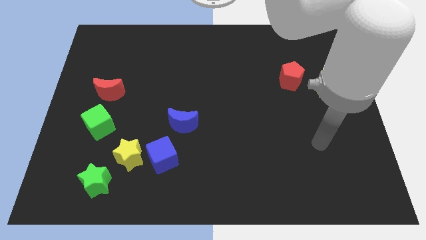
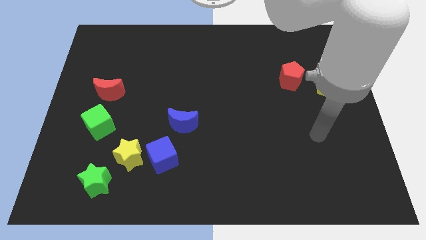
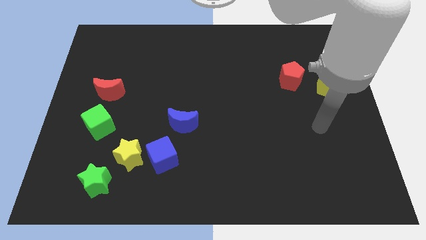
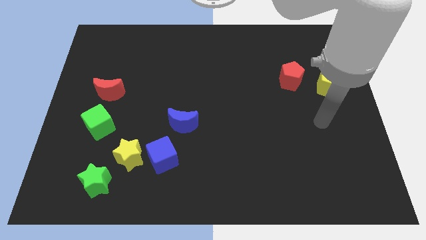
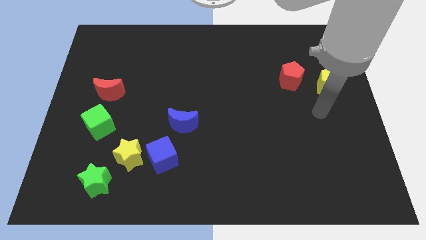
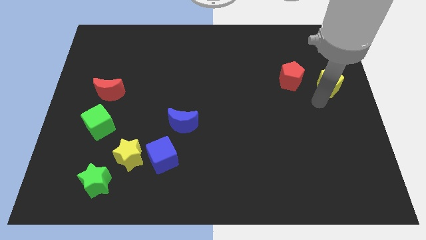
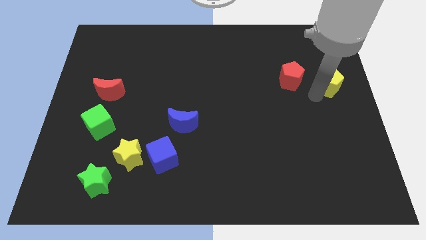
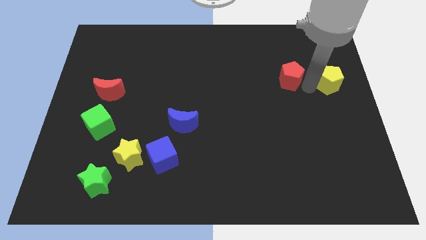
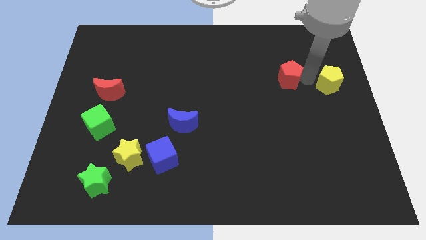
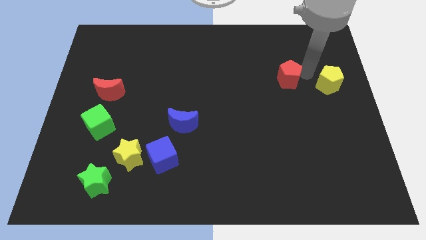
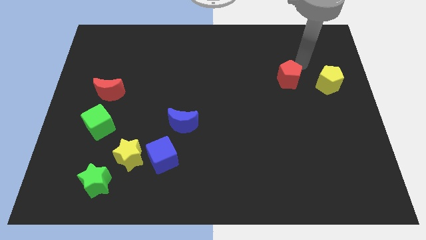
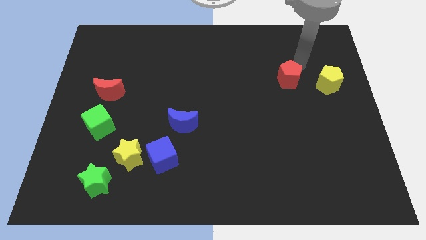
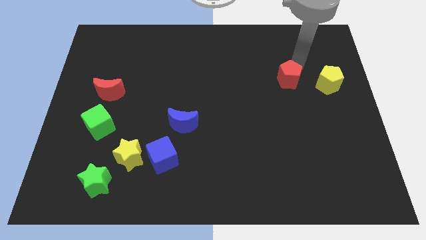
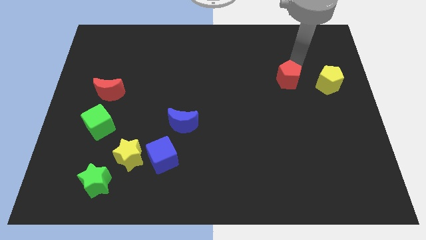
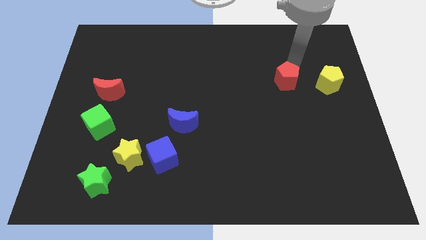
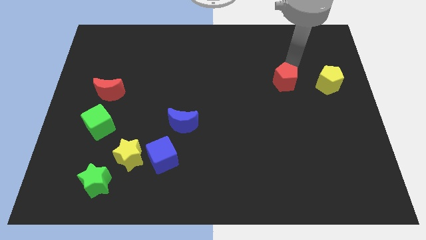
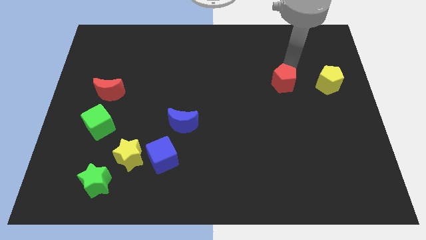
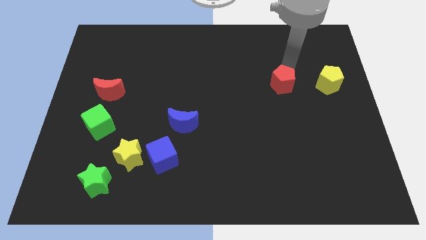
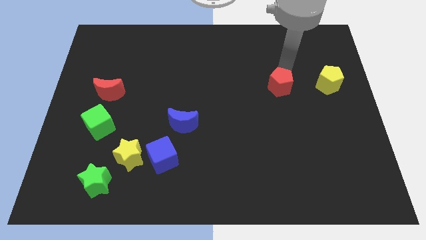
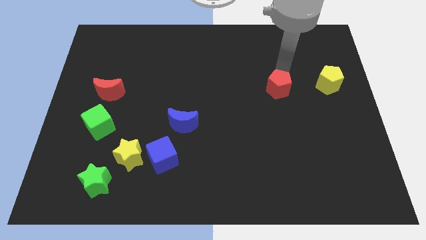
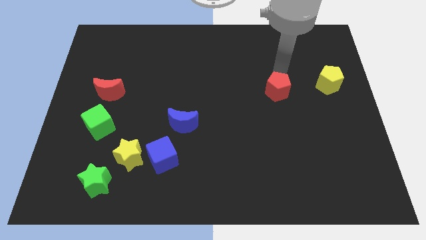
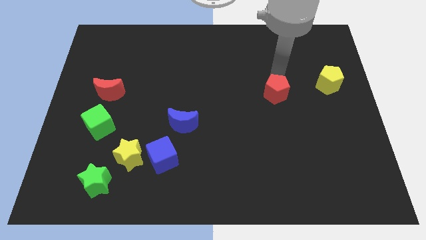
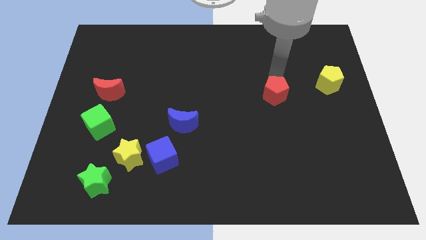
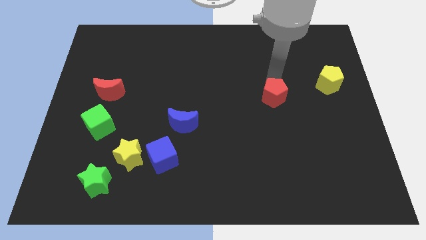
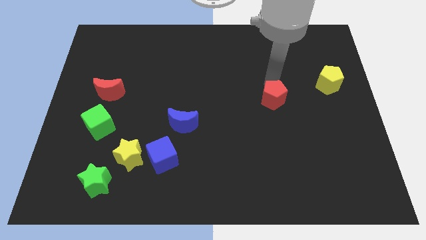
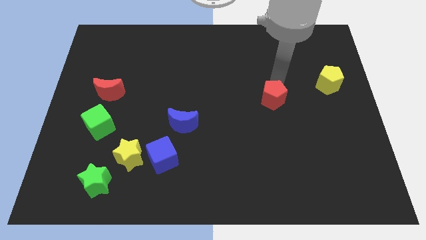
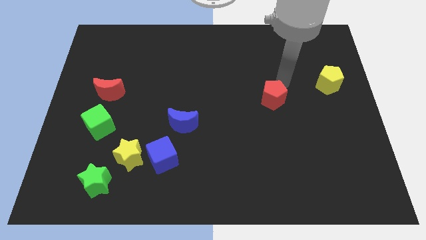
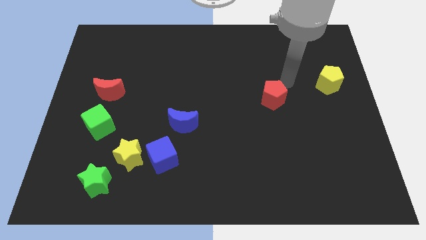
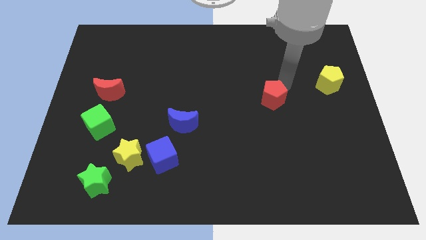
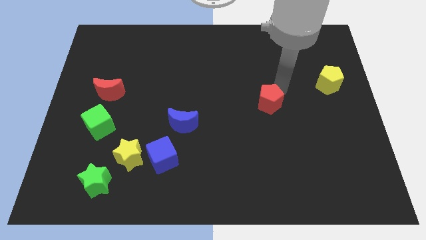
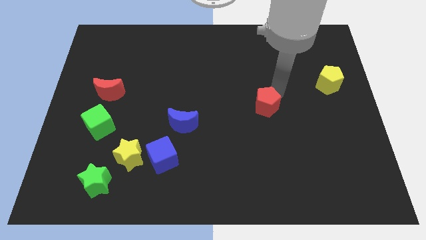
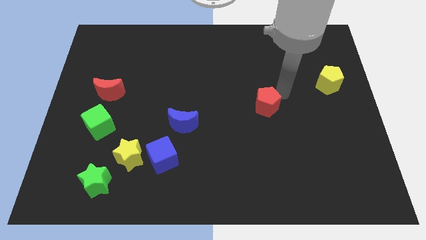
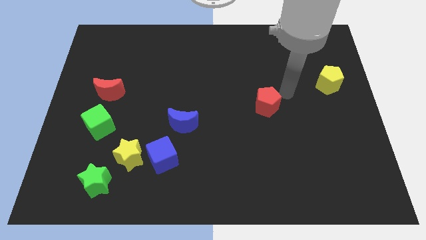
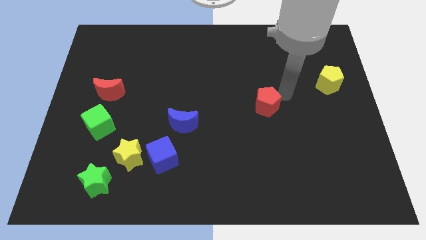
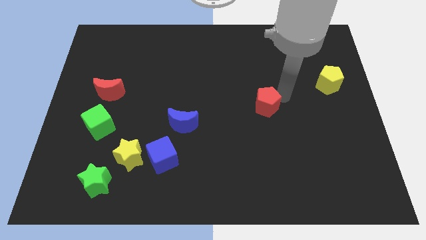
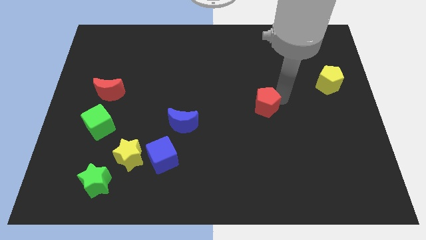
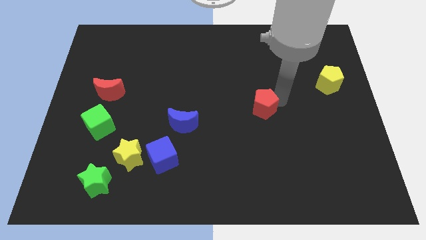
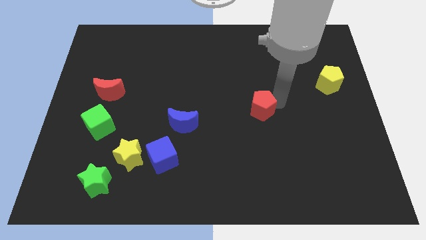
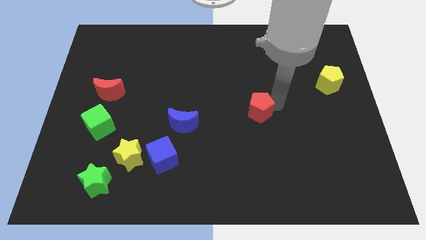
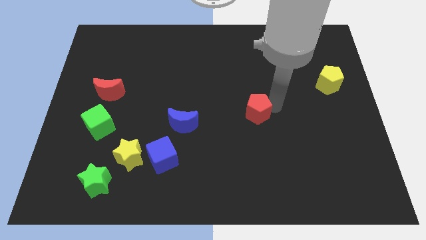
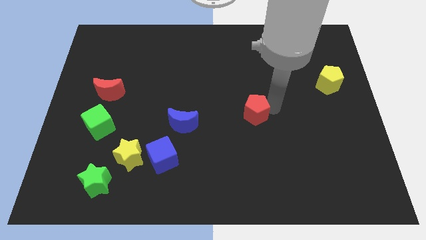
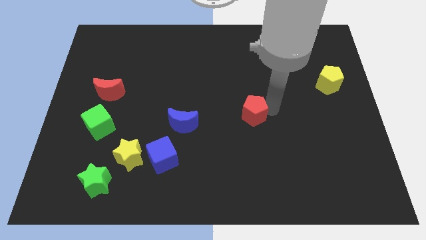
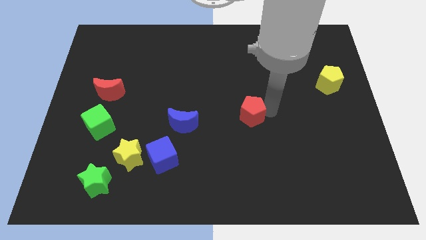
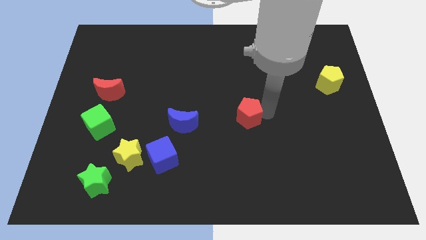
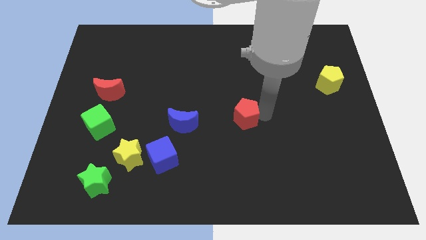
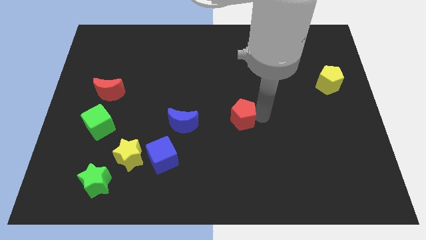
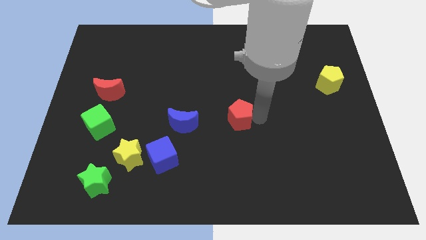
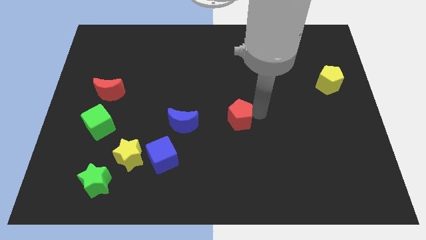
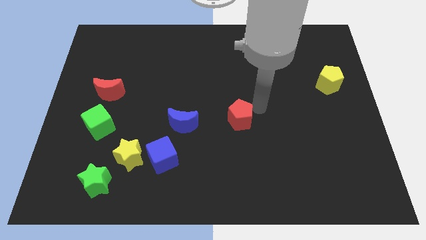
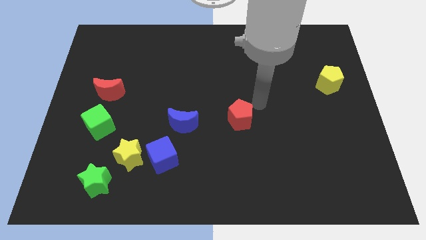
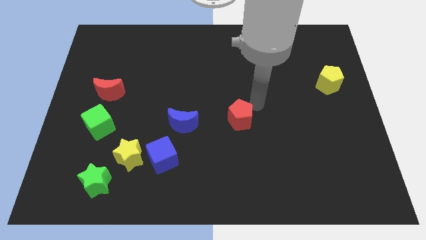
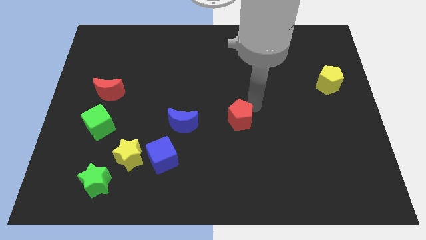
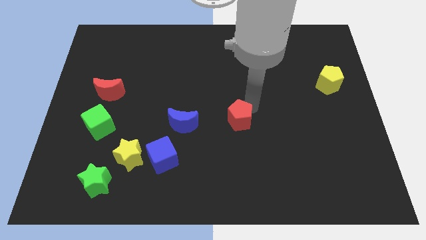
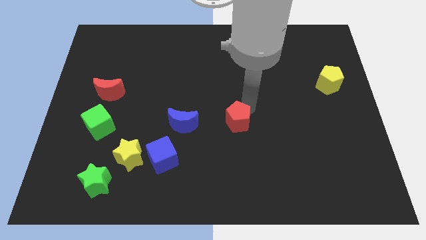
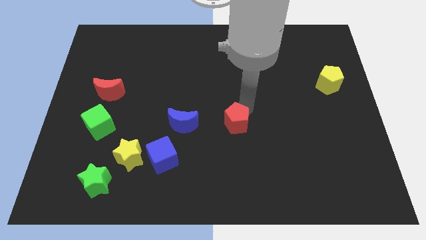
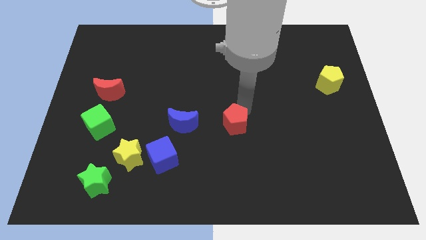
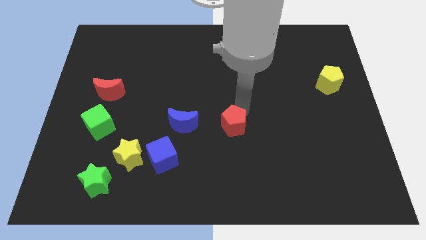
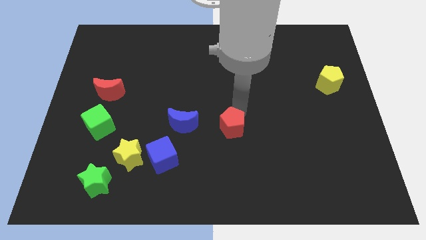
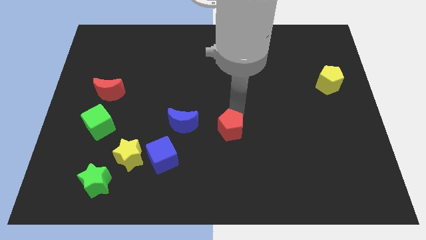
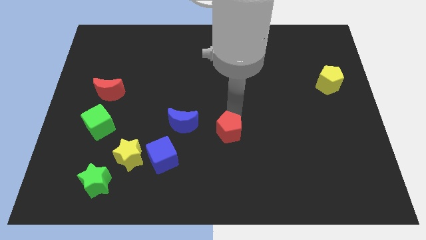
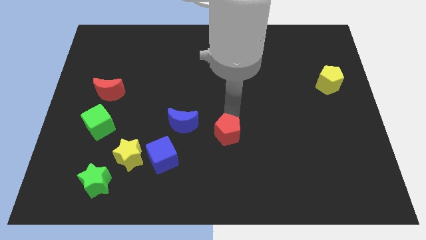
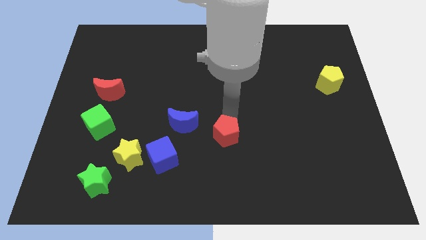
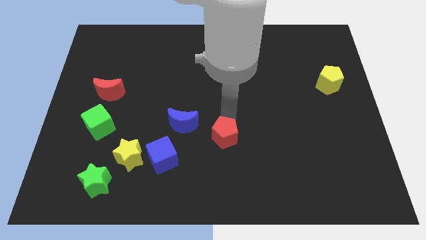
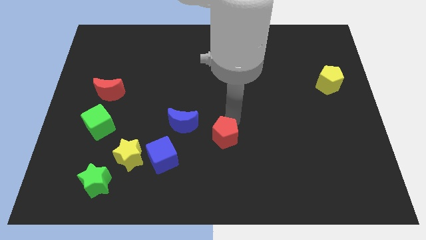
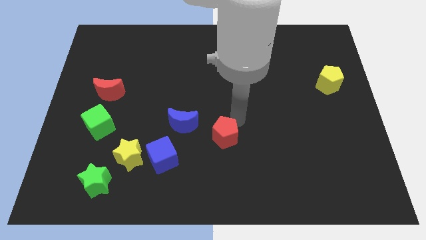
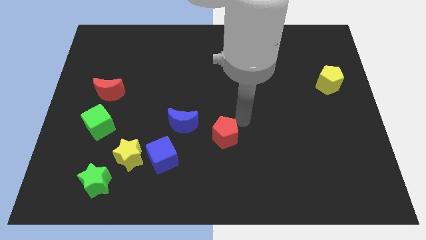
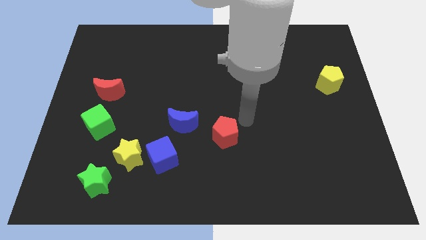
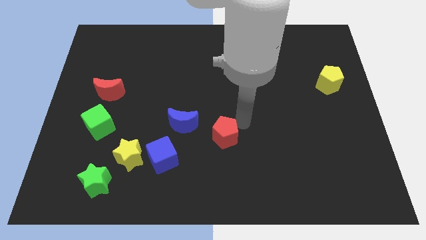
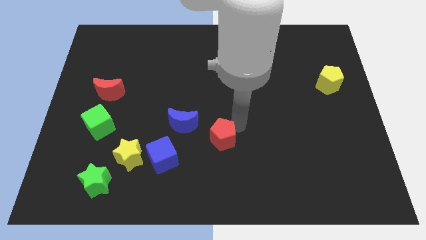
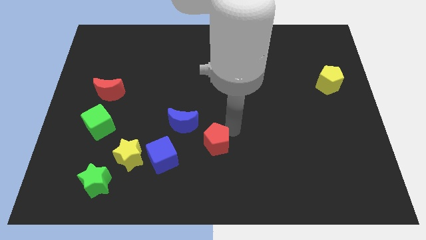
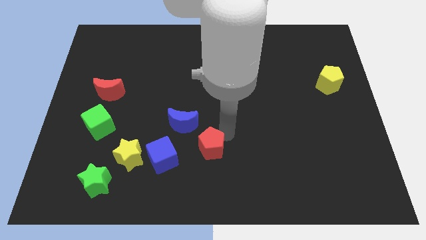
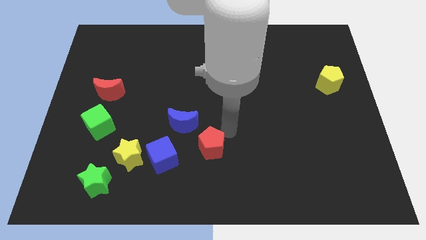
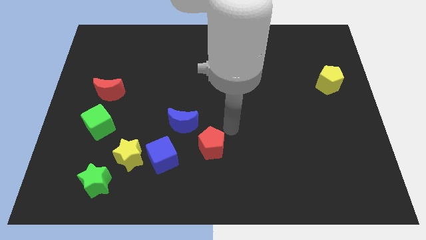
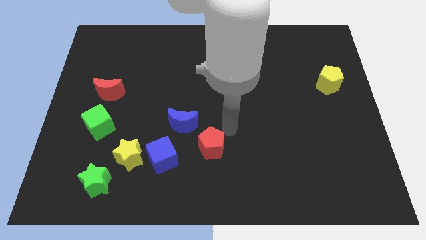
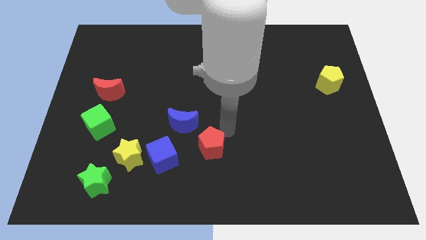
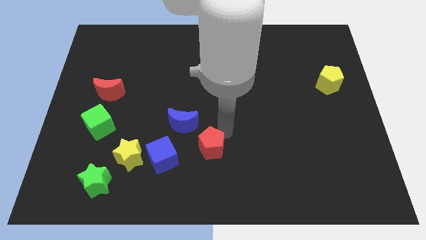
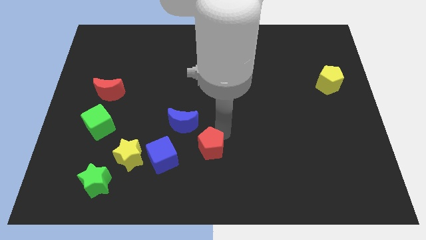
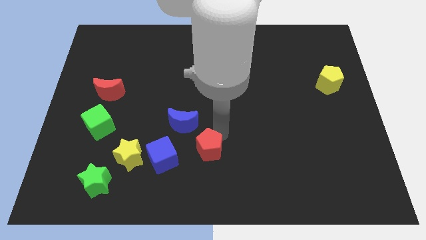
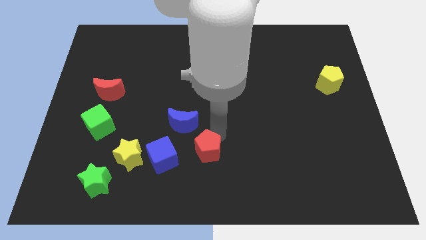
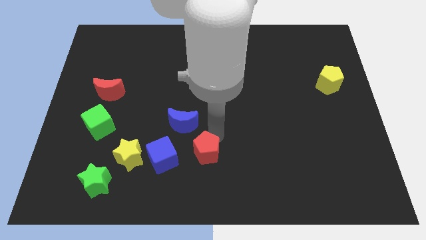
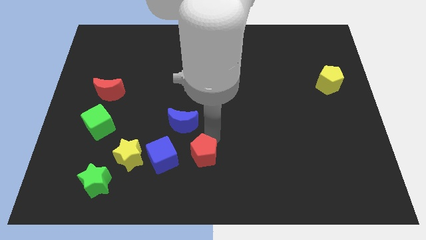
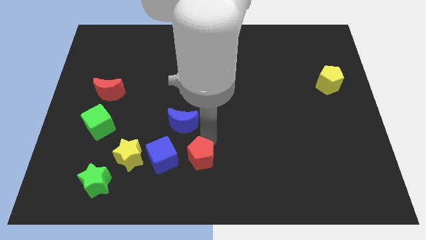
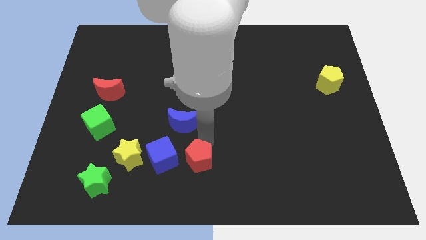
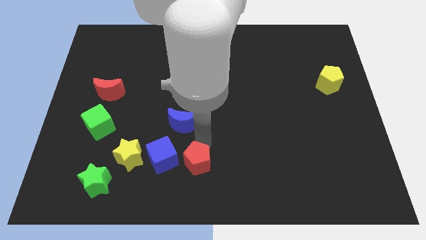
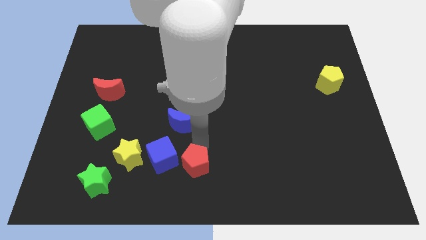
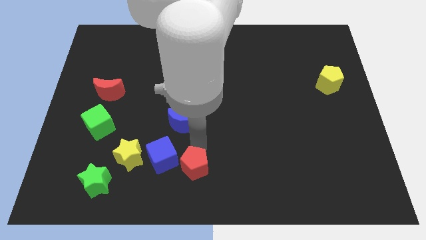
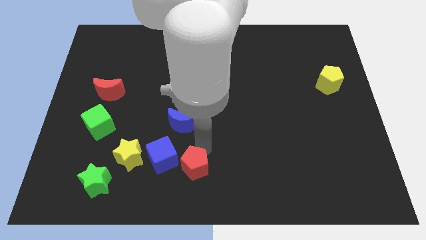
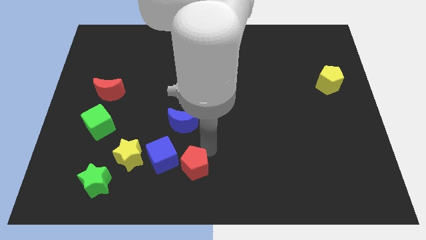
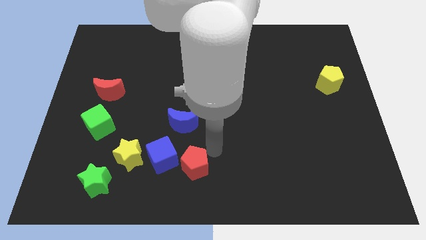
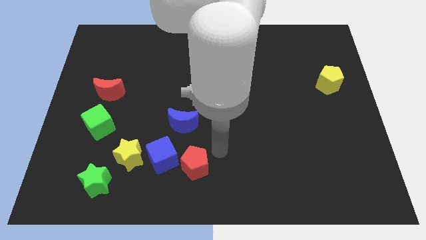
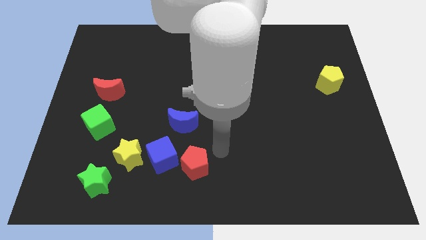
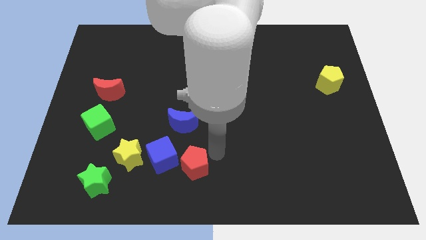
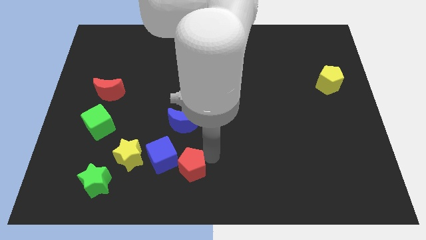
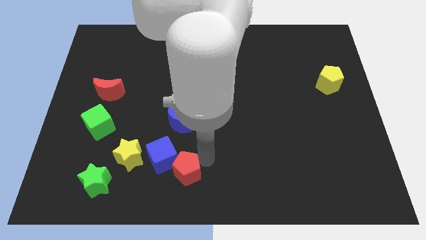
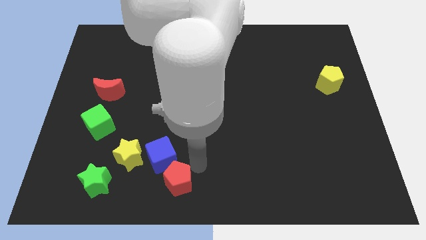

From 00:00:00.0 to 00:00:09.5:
push the red pentagon just right of the green star
